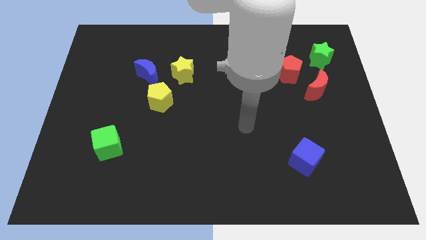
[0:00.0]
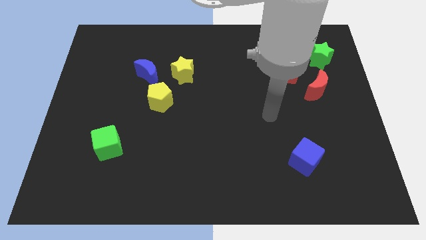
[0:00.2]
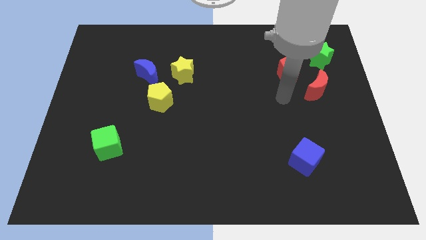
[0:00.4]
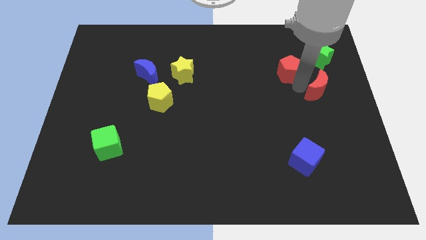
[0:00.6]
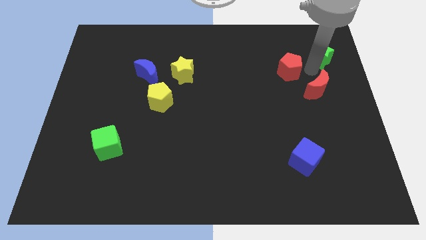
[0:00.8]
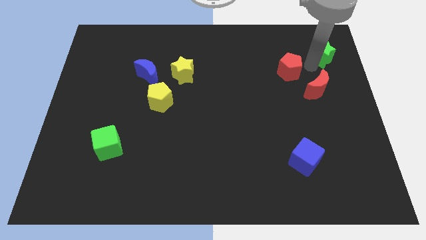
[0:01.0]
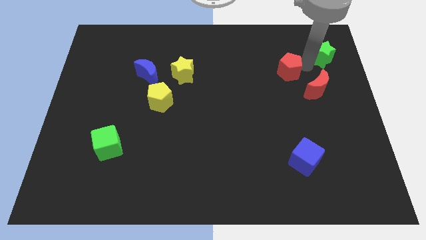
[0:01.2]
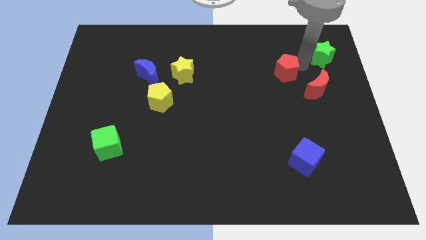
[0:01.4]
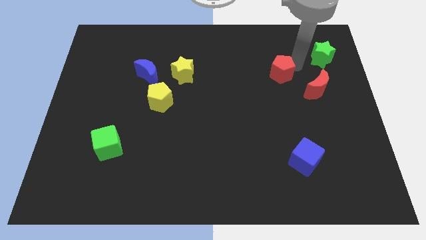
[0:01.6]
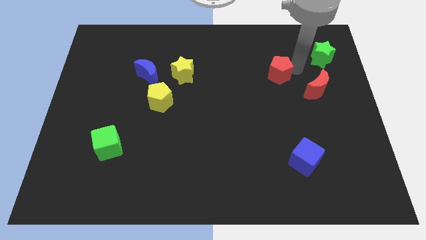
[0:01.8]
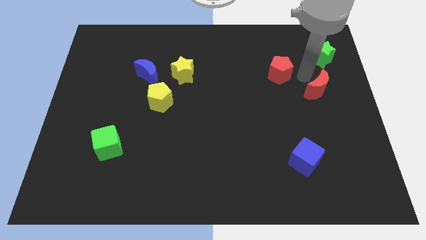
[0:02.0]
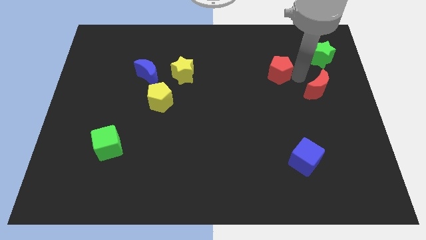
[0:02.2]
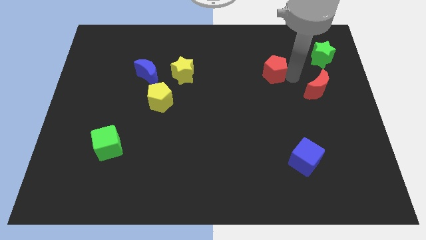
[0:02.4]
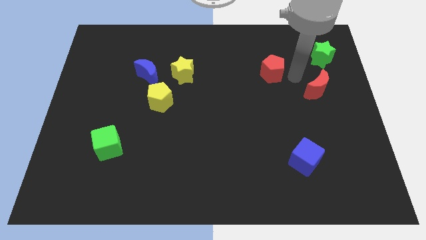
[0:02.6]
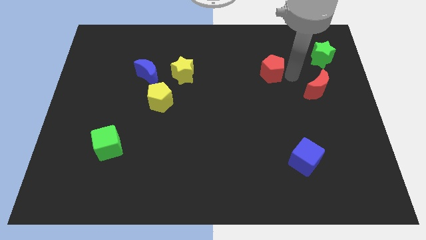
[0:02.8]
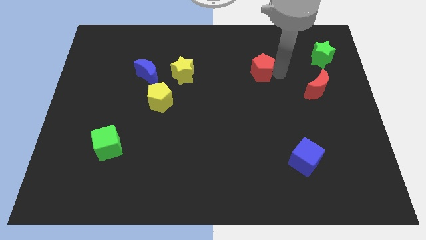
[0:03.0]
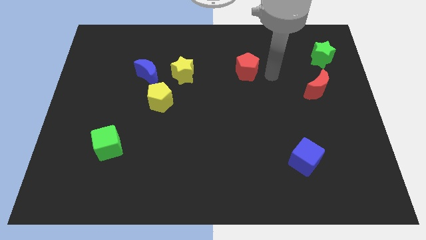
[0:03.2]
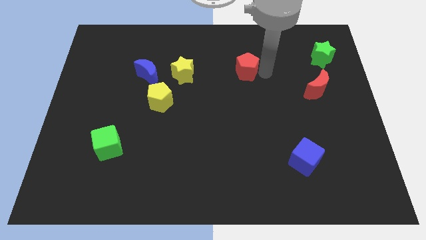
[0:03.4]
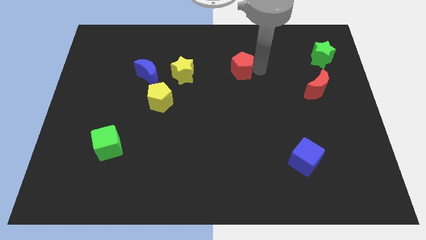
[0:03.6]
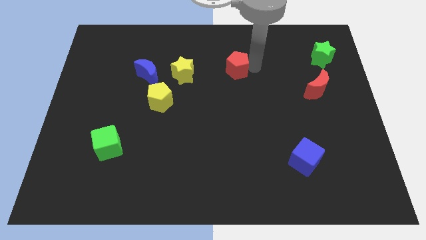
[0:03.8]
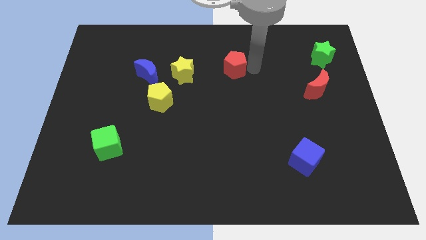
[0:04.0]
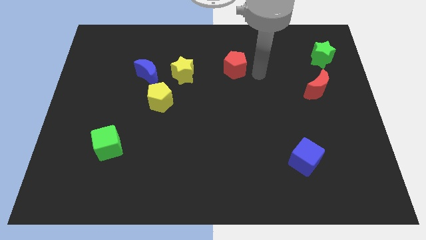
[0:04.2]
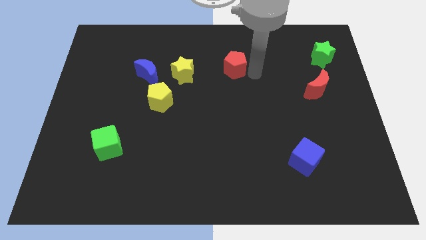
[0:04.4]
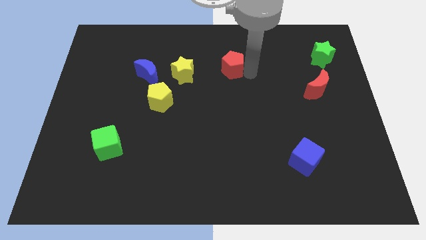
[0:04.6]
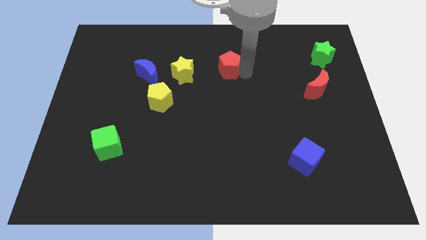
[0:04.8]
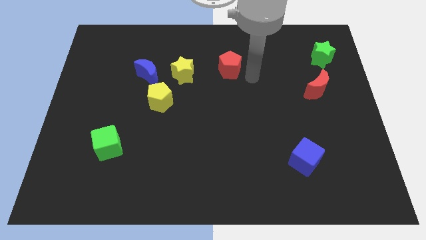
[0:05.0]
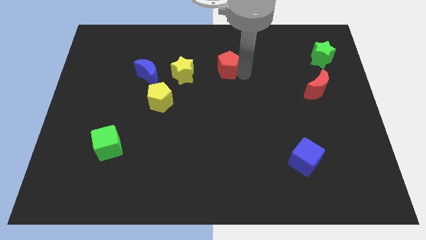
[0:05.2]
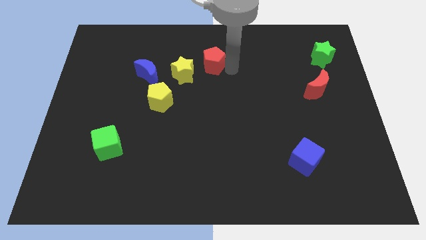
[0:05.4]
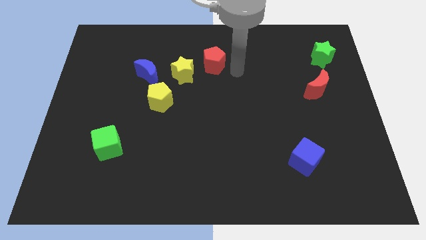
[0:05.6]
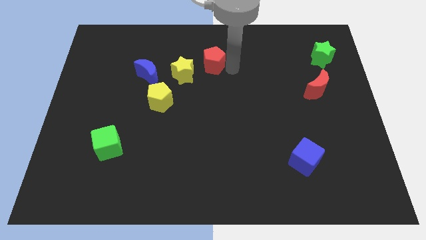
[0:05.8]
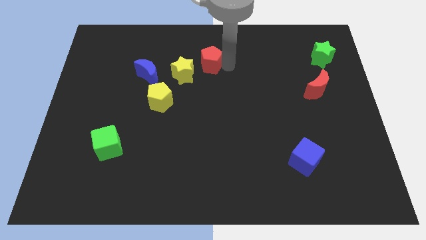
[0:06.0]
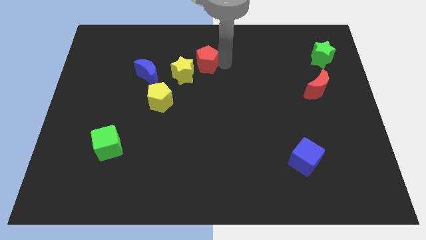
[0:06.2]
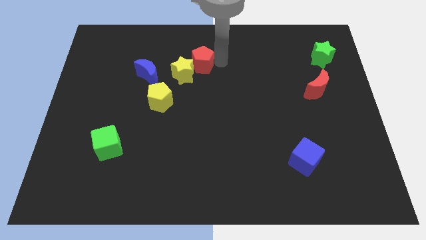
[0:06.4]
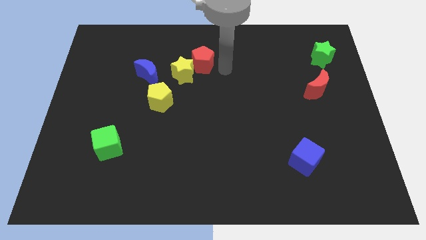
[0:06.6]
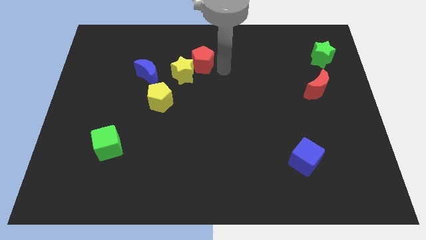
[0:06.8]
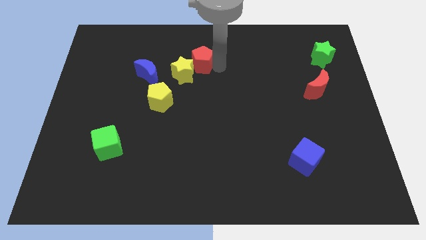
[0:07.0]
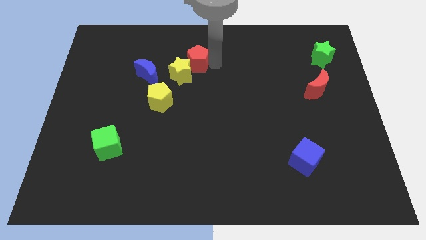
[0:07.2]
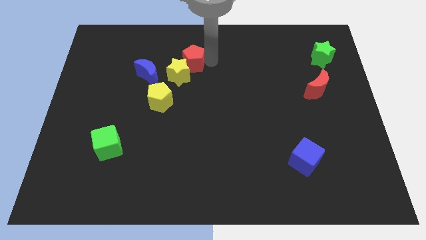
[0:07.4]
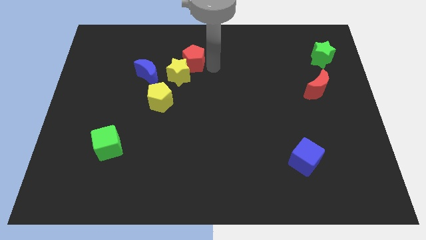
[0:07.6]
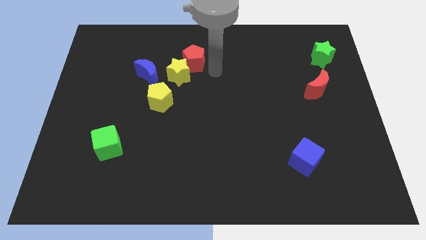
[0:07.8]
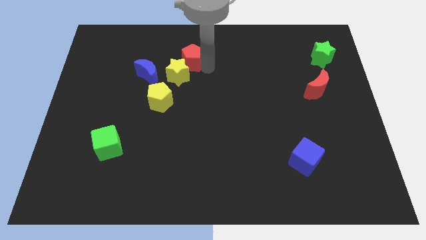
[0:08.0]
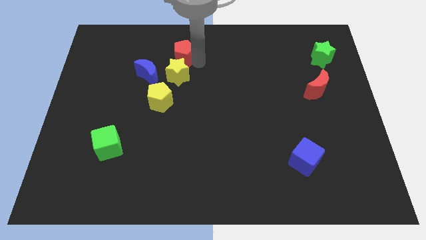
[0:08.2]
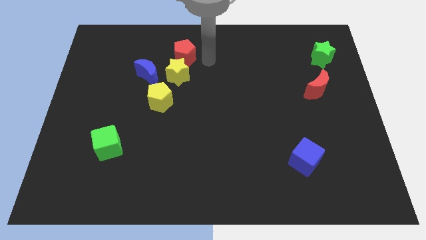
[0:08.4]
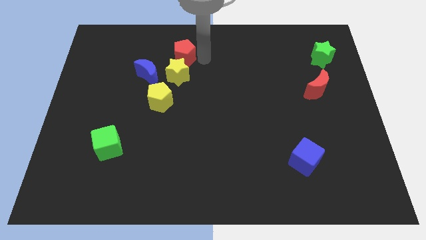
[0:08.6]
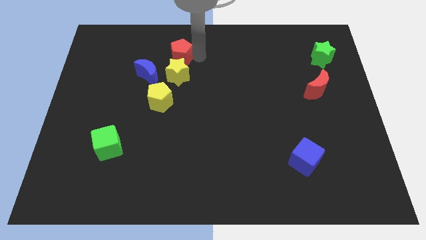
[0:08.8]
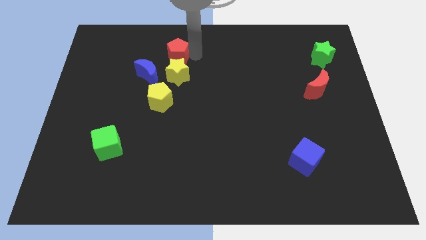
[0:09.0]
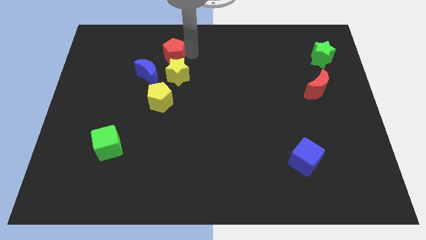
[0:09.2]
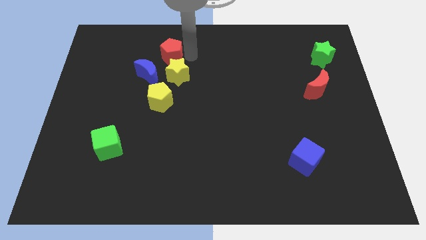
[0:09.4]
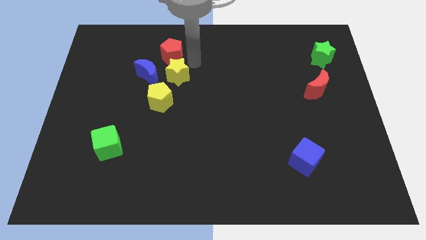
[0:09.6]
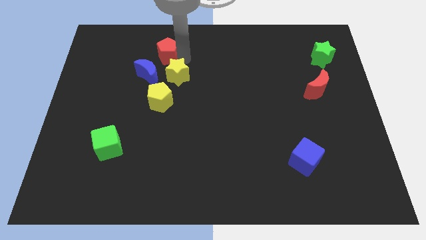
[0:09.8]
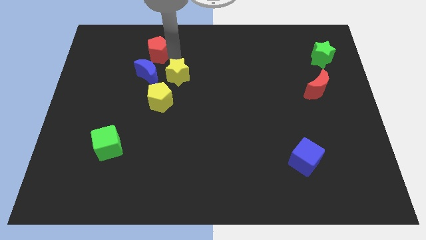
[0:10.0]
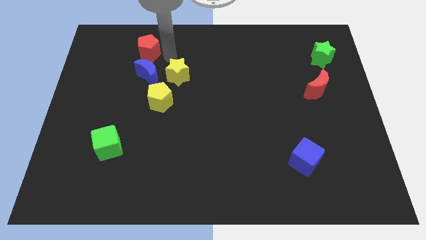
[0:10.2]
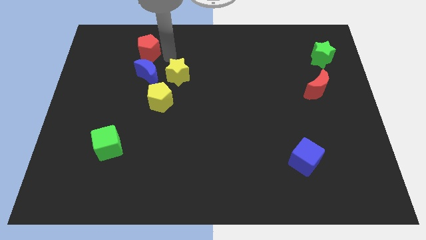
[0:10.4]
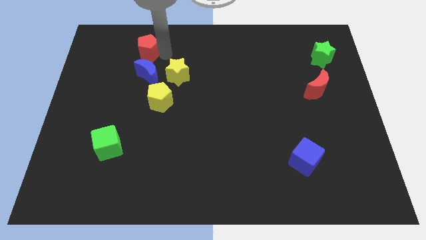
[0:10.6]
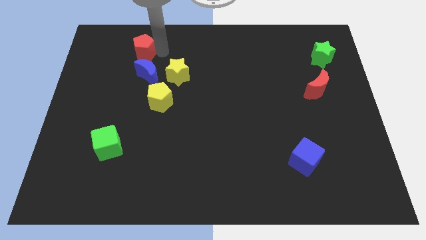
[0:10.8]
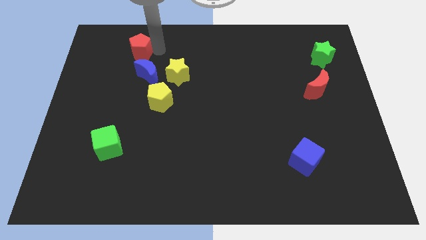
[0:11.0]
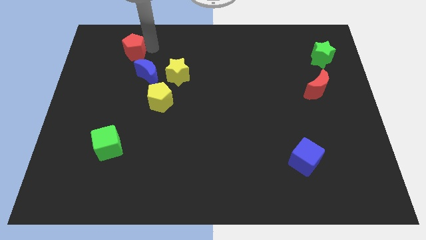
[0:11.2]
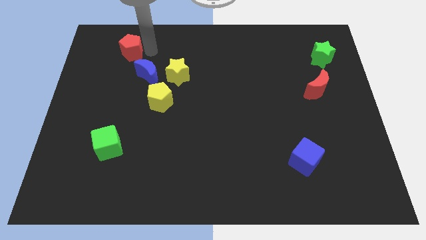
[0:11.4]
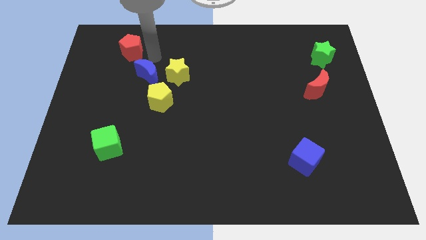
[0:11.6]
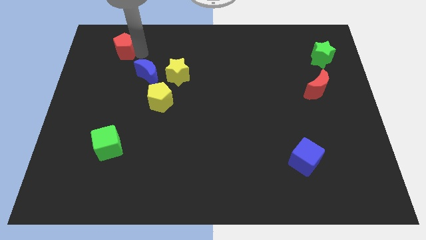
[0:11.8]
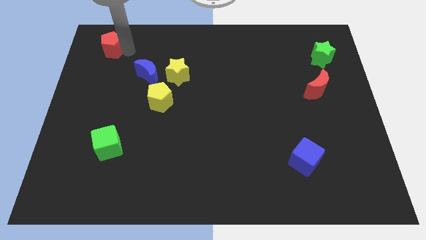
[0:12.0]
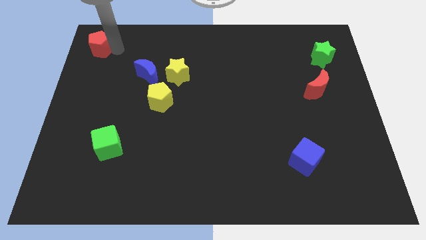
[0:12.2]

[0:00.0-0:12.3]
slide the red pentagon to the top left
